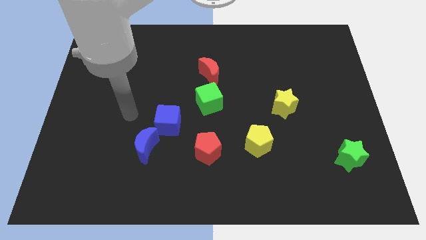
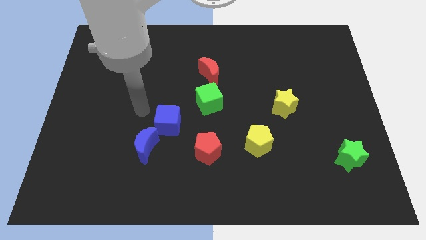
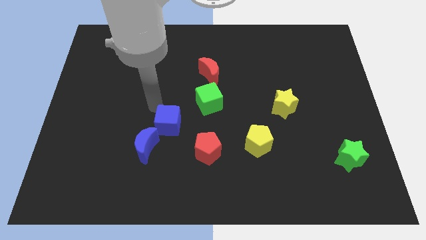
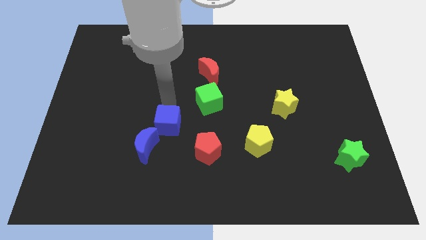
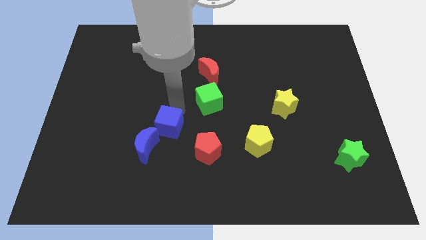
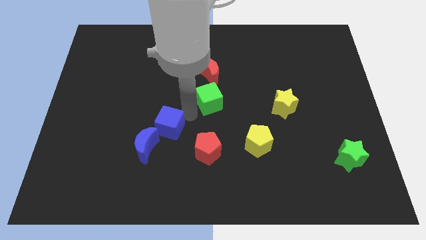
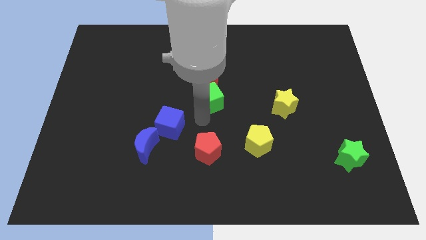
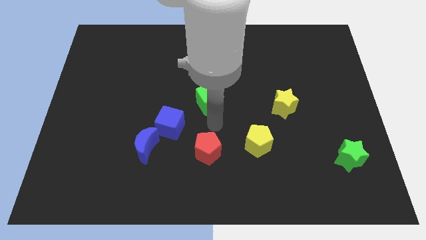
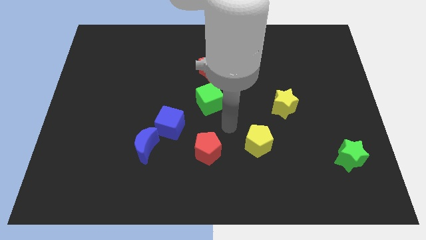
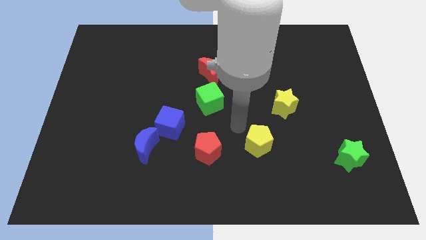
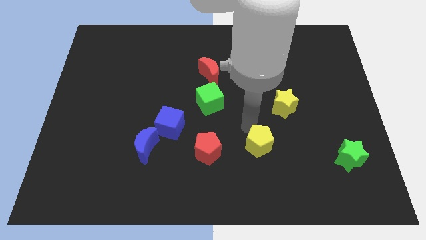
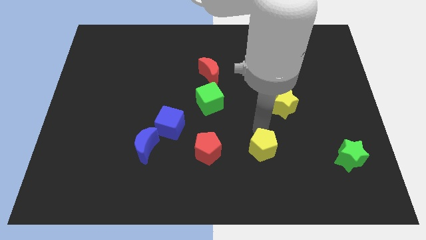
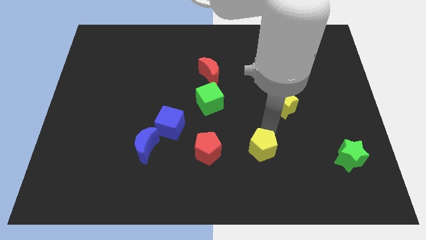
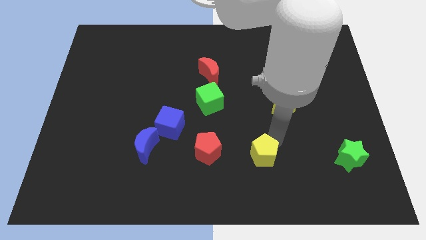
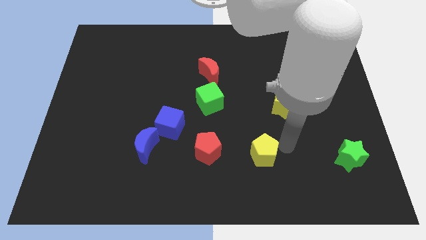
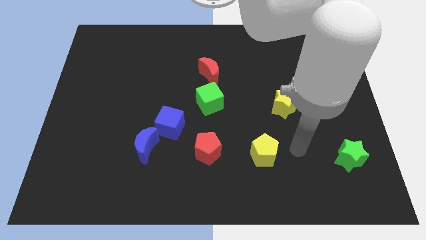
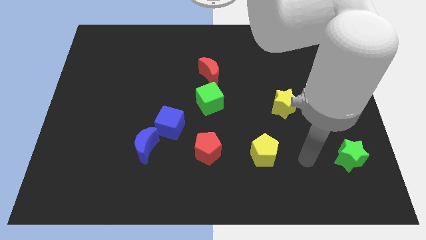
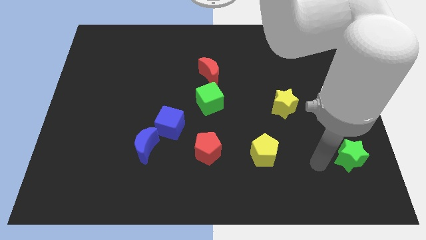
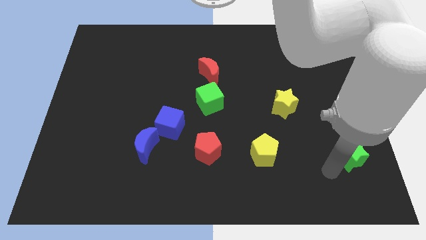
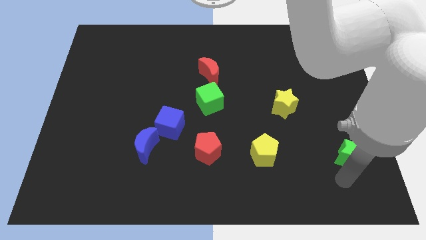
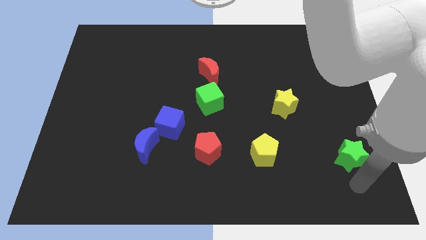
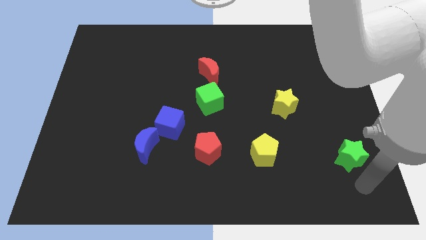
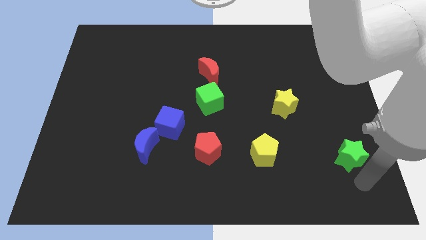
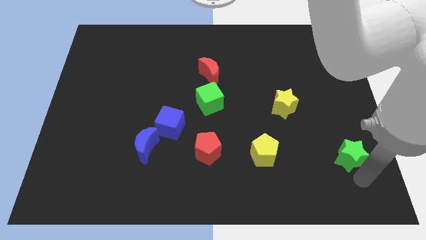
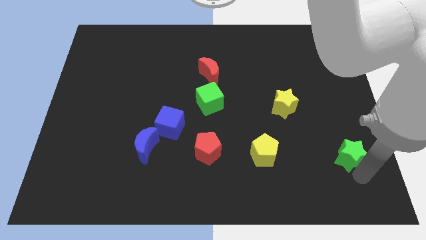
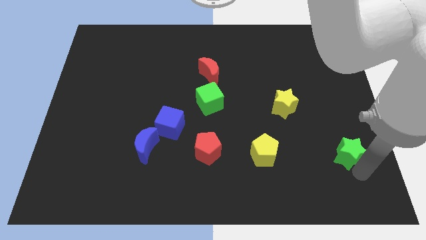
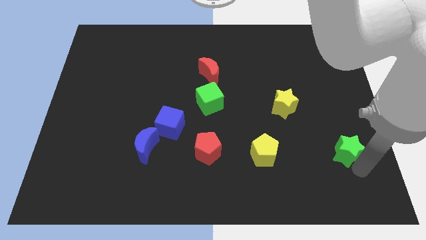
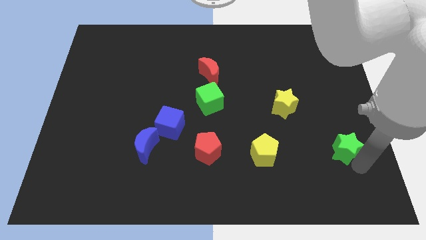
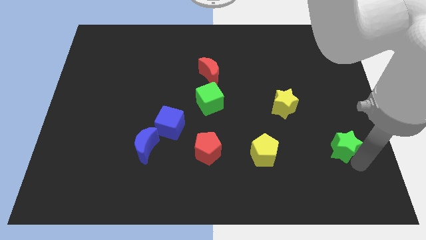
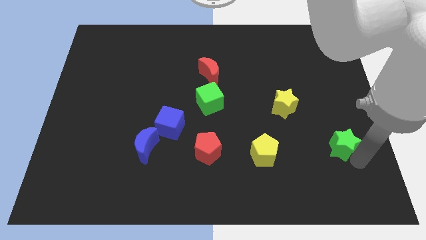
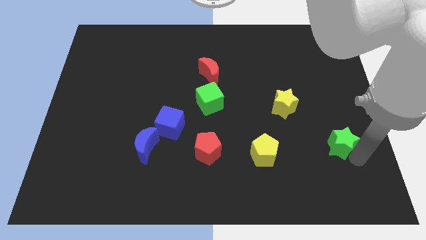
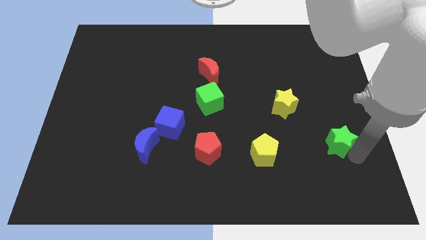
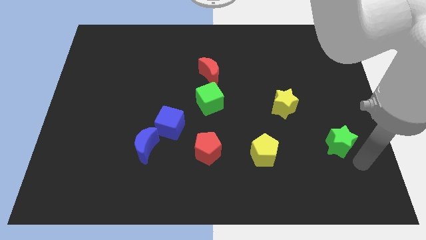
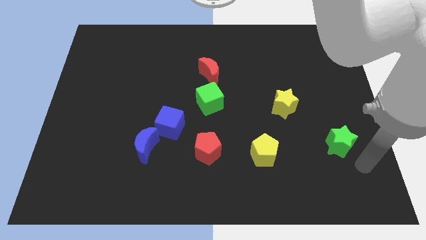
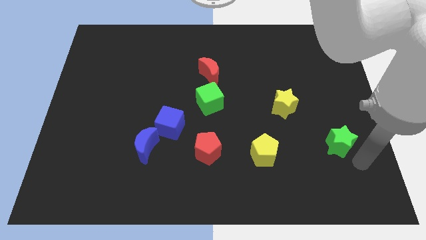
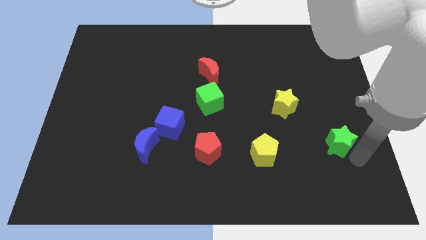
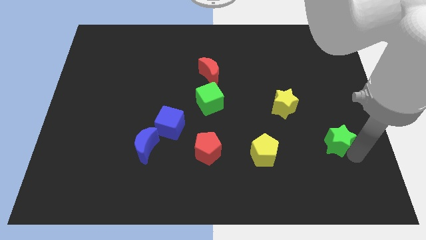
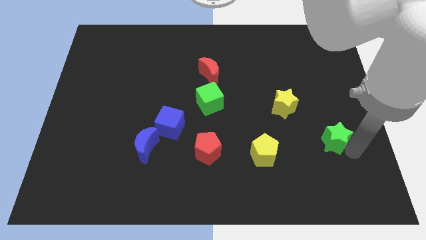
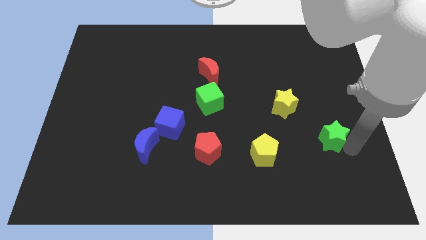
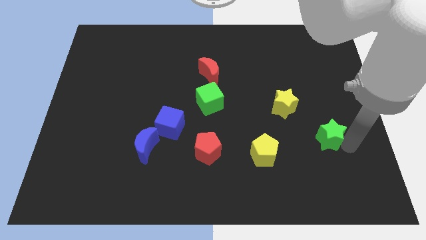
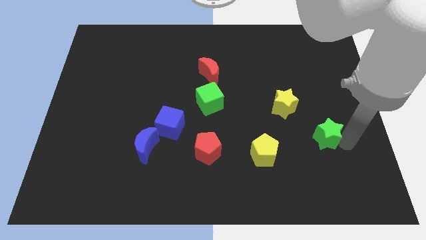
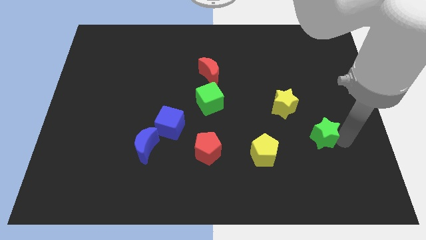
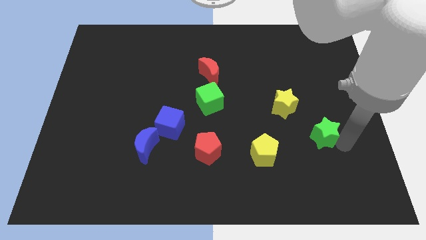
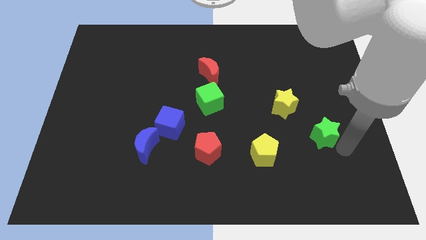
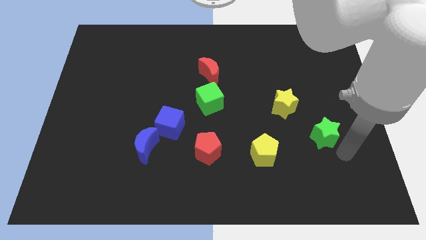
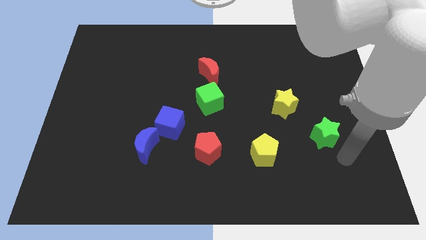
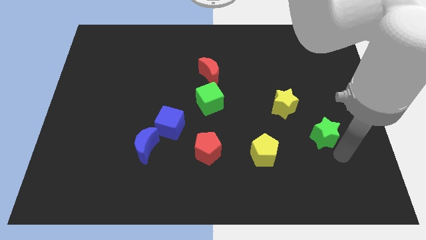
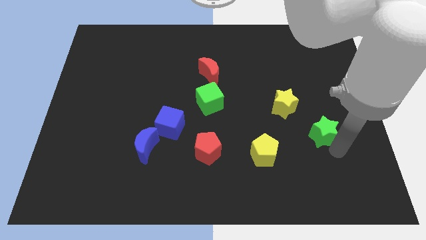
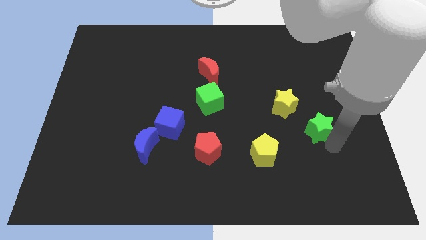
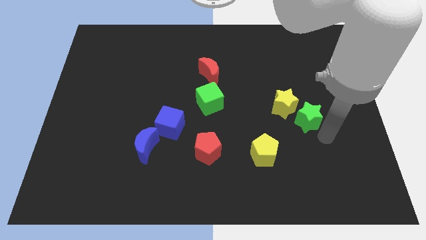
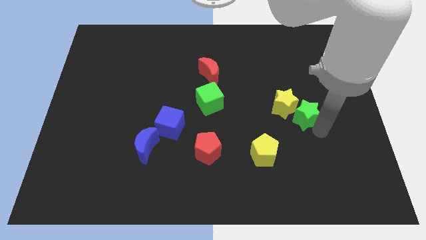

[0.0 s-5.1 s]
push the green star next to the yellow star

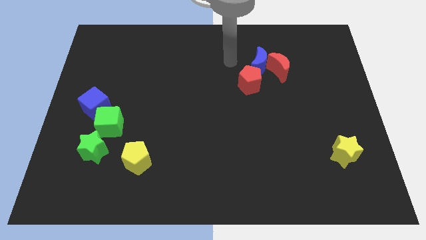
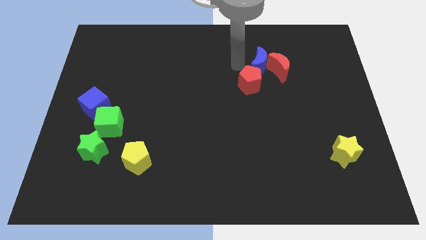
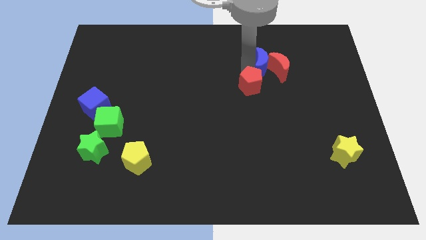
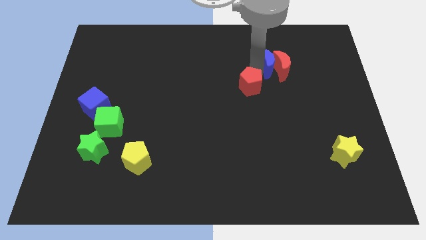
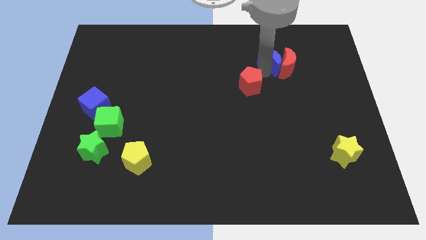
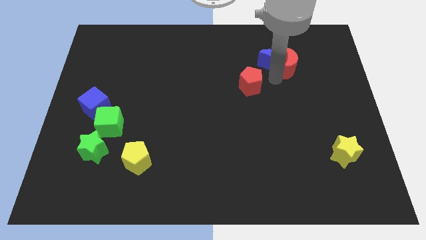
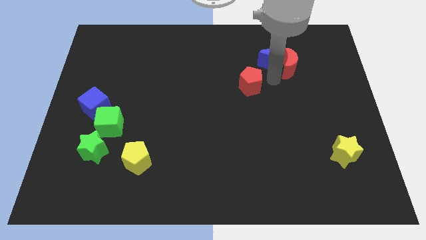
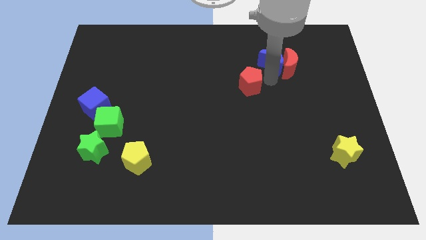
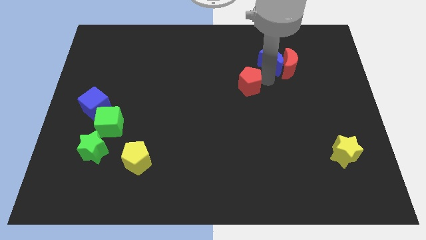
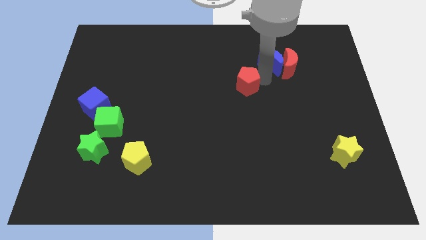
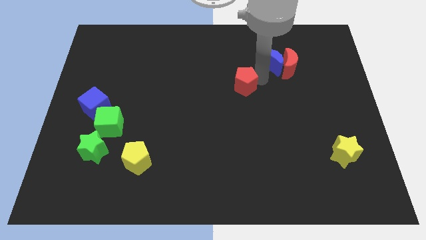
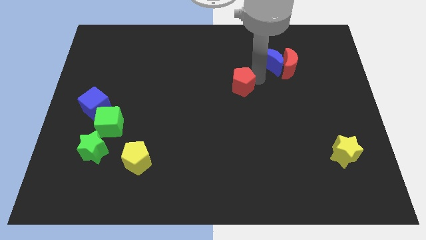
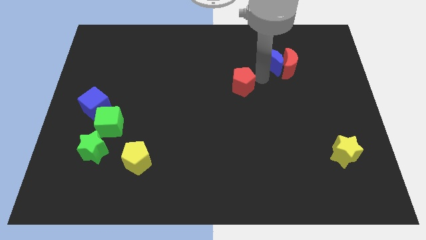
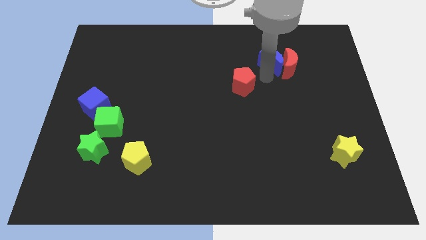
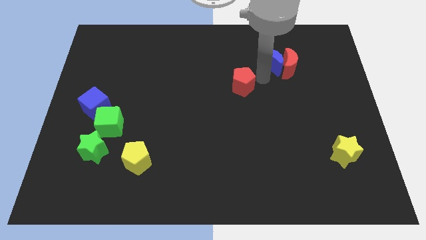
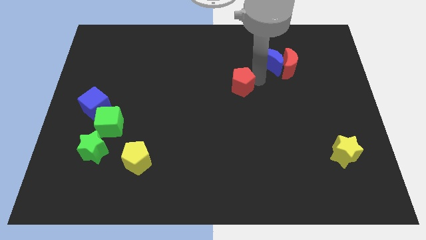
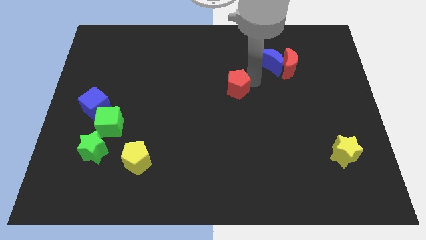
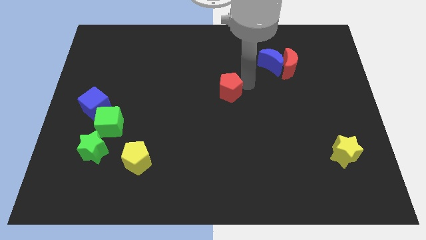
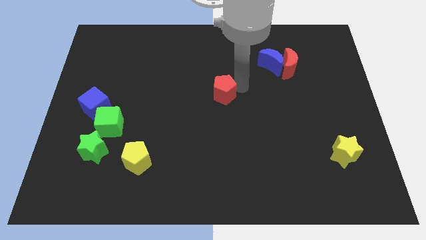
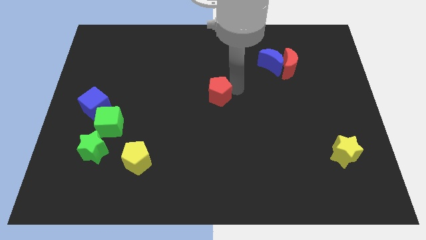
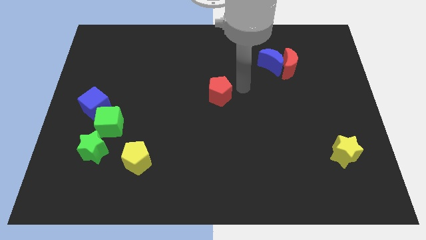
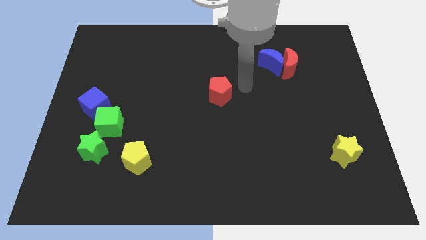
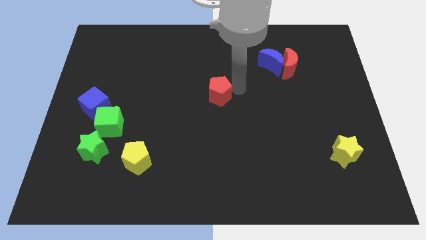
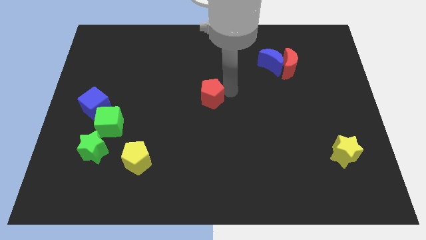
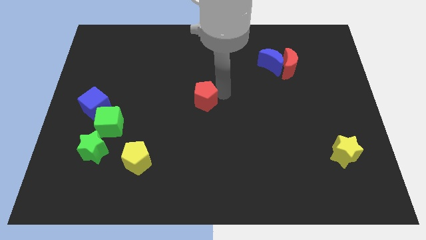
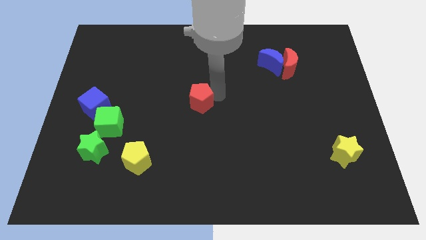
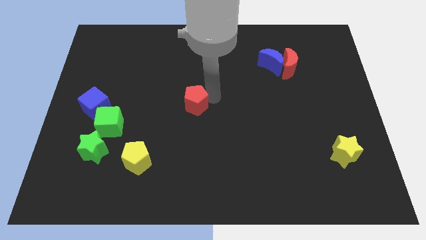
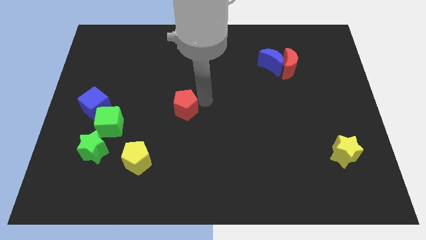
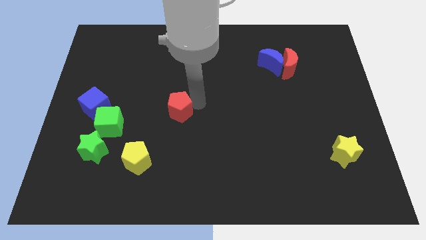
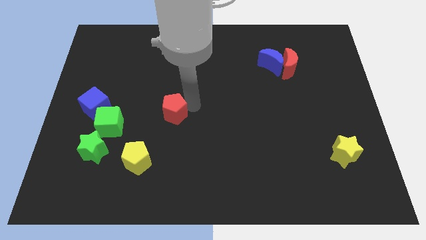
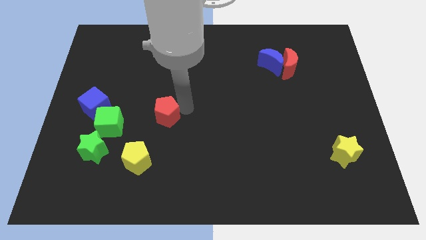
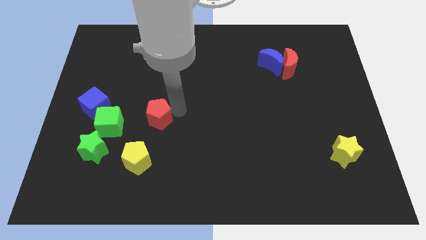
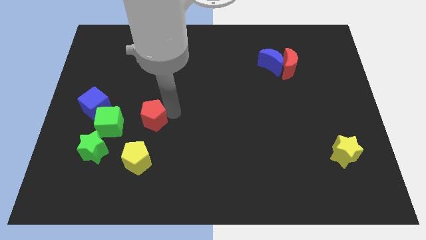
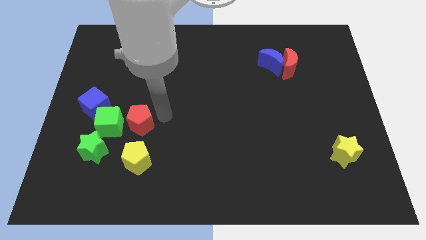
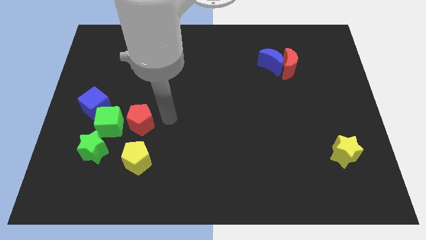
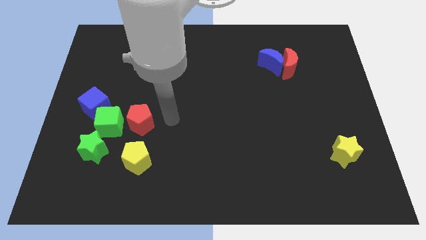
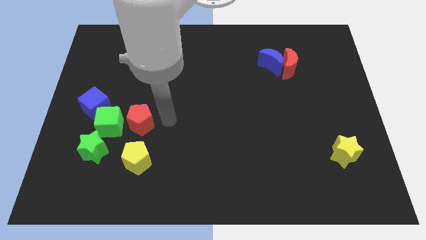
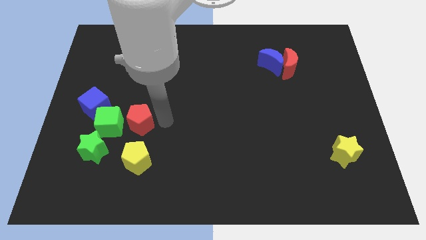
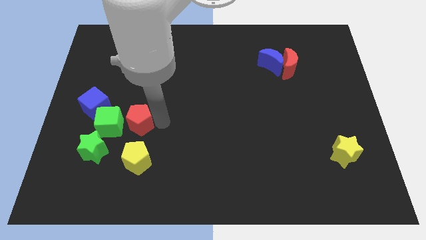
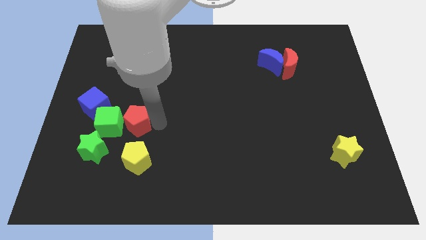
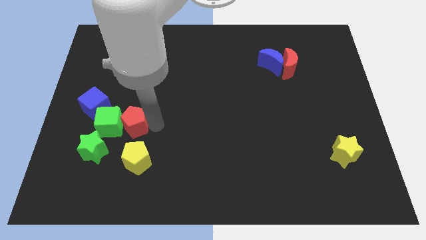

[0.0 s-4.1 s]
put the red pentagon next to the green cube
